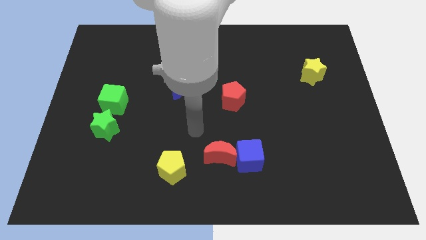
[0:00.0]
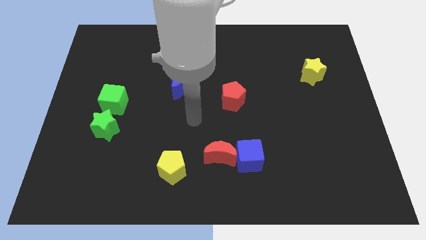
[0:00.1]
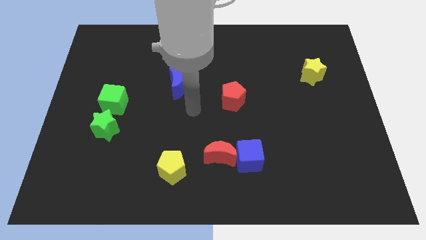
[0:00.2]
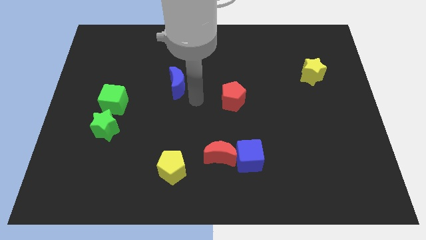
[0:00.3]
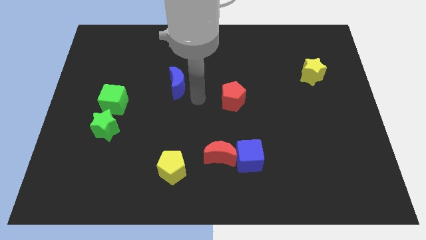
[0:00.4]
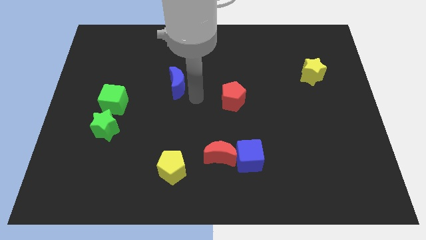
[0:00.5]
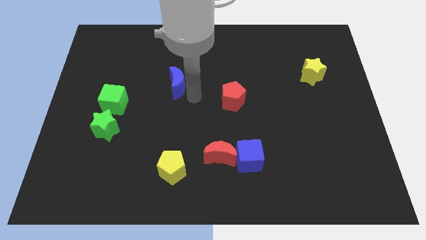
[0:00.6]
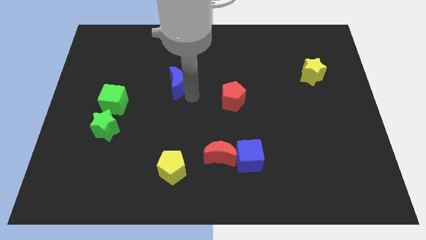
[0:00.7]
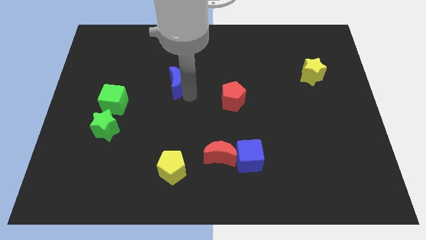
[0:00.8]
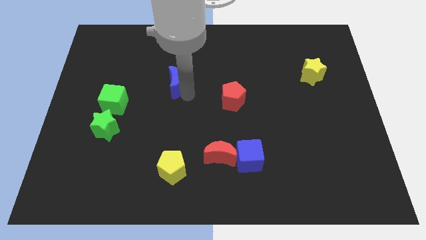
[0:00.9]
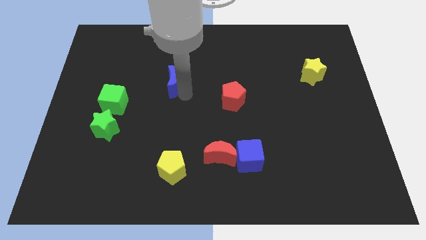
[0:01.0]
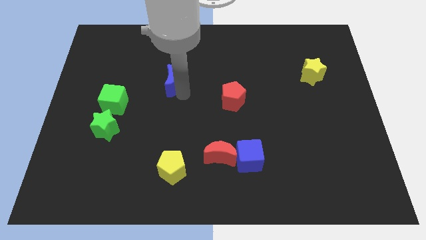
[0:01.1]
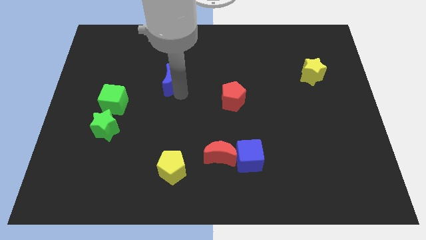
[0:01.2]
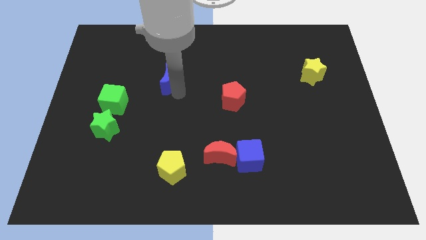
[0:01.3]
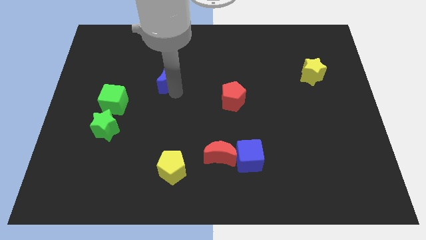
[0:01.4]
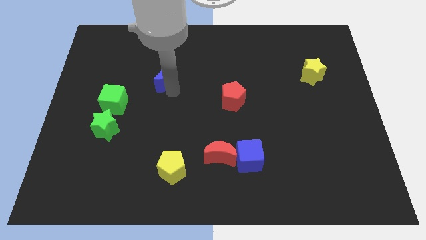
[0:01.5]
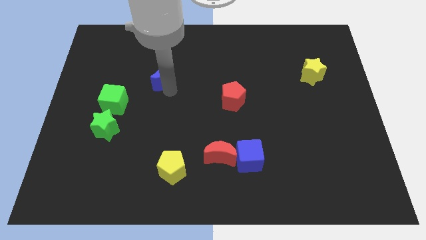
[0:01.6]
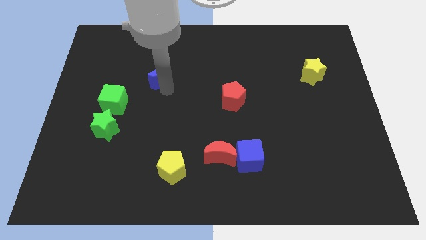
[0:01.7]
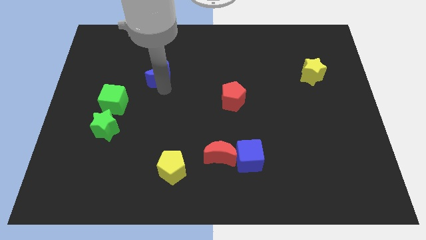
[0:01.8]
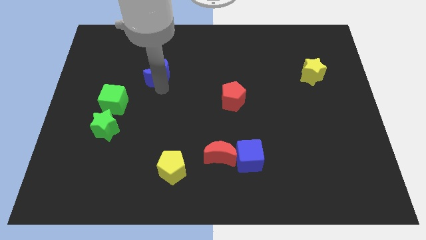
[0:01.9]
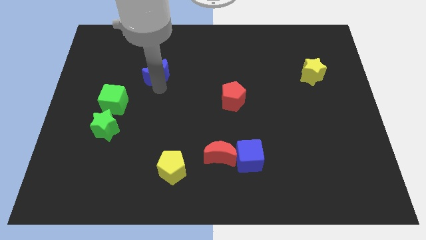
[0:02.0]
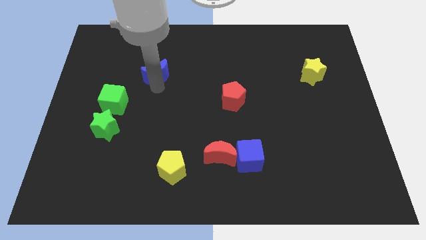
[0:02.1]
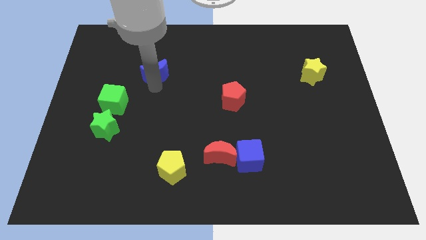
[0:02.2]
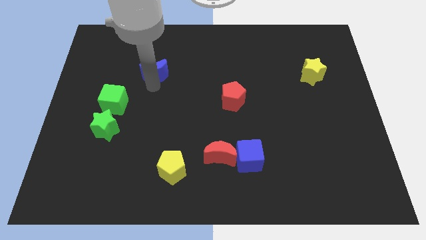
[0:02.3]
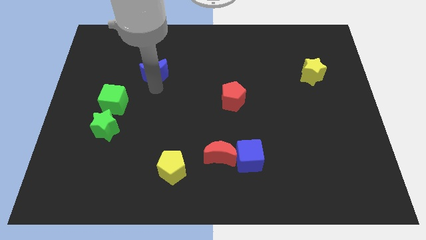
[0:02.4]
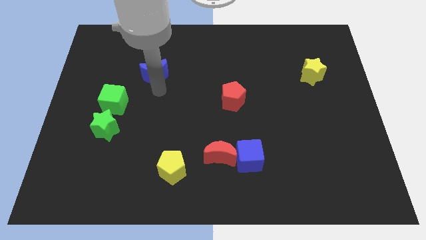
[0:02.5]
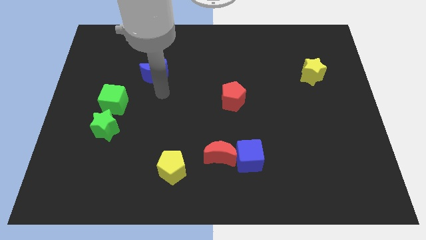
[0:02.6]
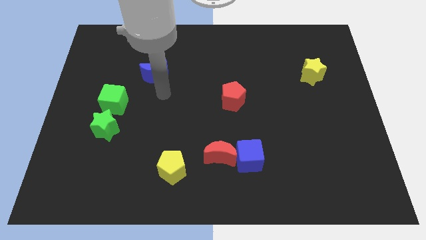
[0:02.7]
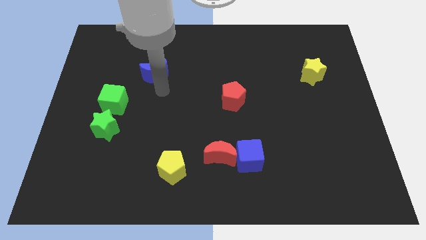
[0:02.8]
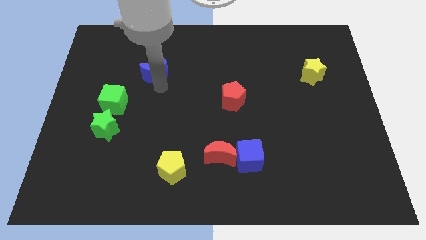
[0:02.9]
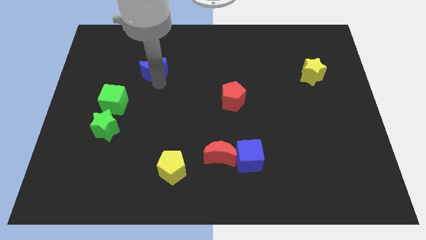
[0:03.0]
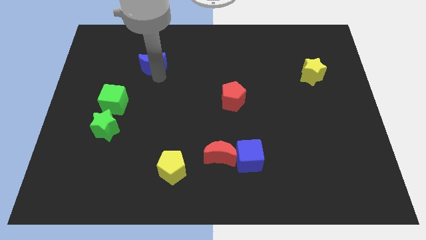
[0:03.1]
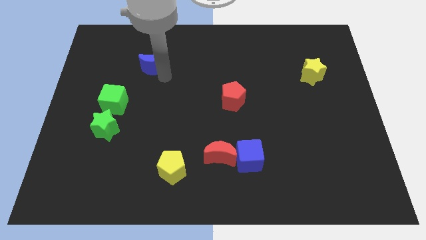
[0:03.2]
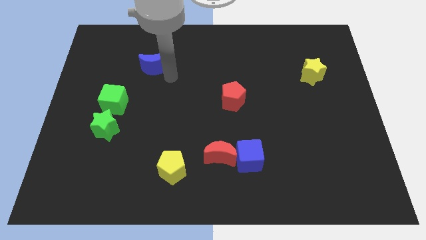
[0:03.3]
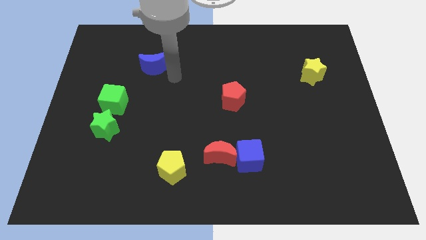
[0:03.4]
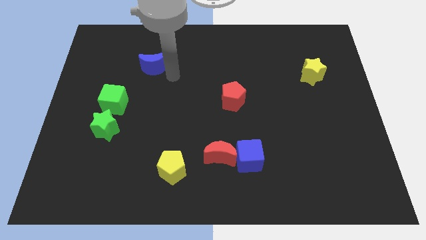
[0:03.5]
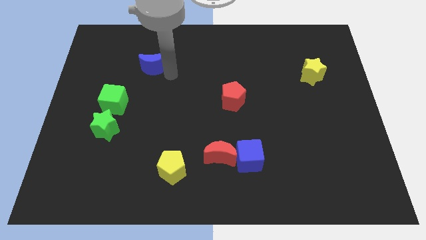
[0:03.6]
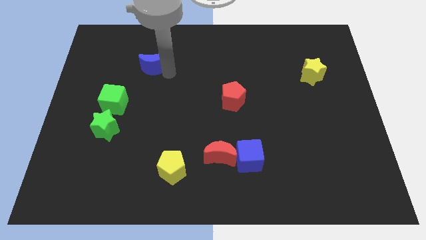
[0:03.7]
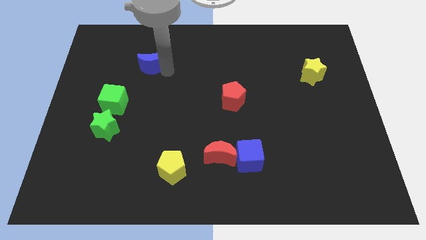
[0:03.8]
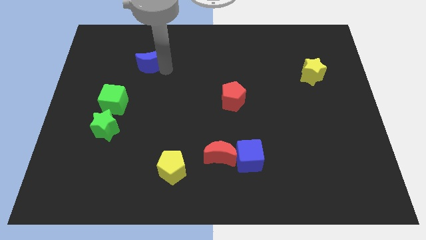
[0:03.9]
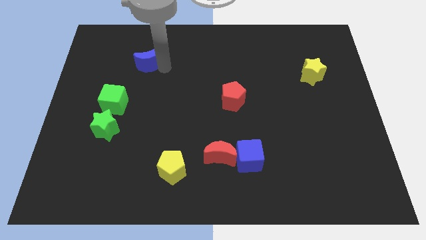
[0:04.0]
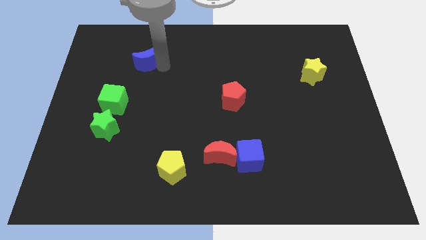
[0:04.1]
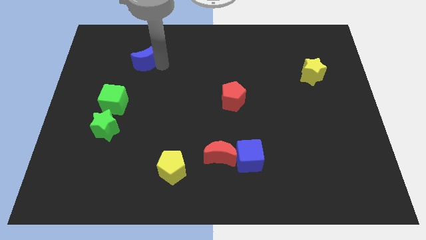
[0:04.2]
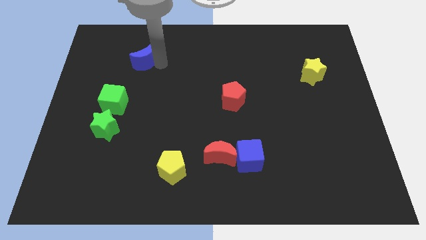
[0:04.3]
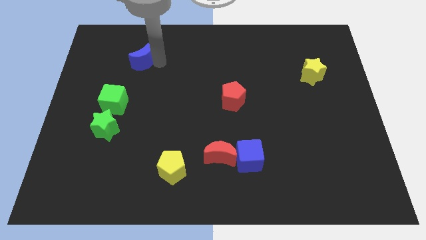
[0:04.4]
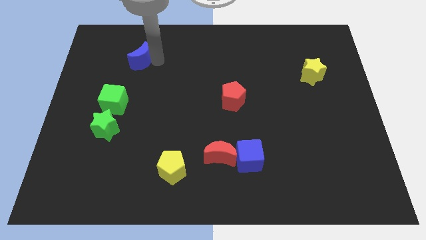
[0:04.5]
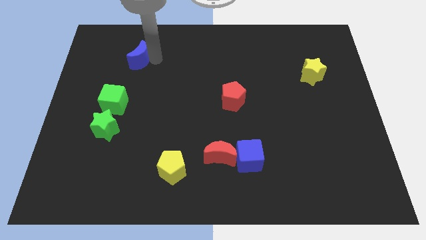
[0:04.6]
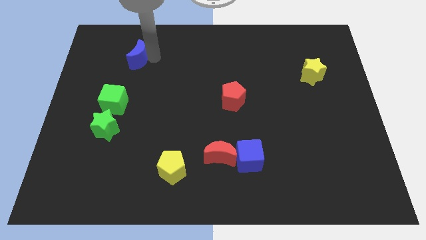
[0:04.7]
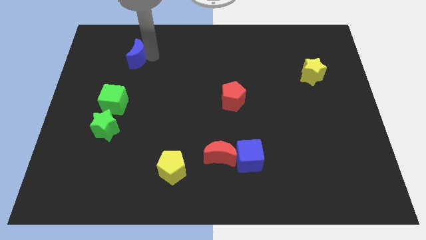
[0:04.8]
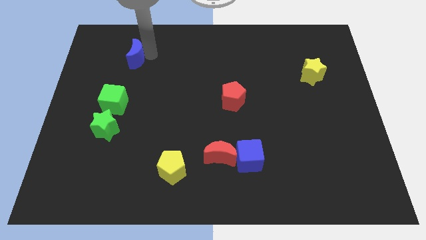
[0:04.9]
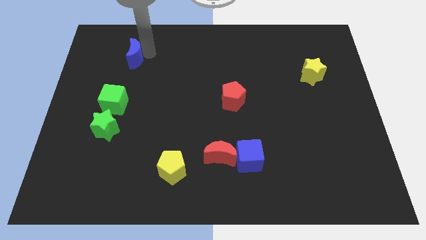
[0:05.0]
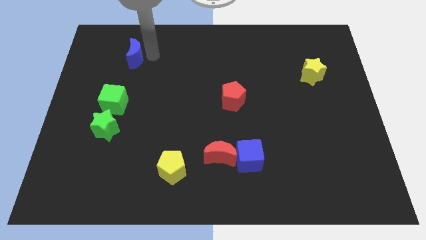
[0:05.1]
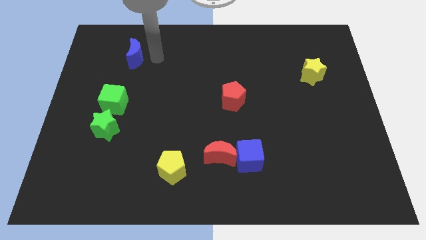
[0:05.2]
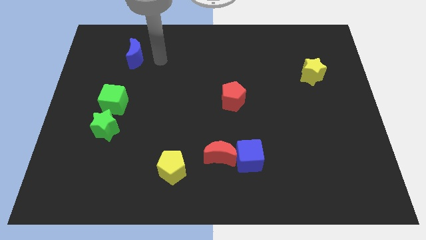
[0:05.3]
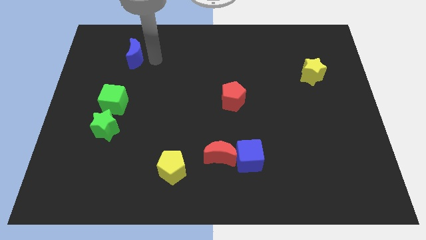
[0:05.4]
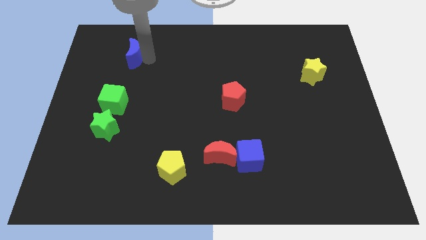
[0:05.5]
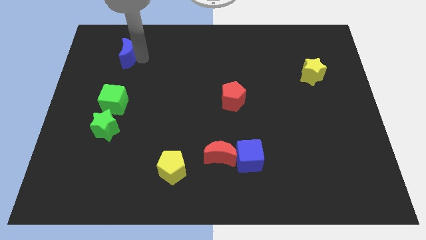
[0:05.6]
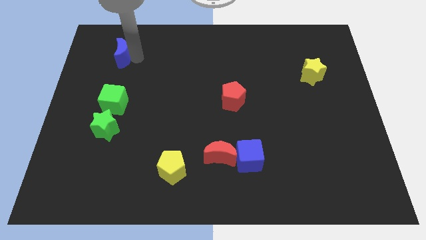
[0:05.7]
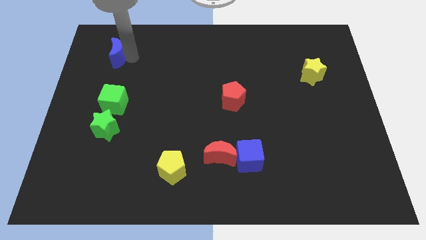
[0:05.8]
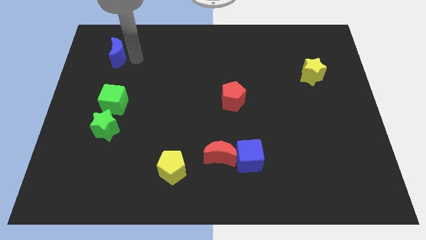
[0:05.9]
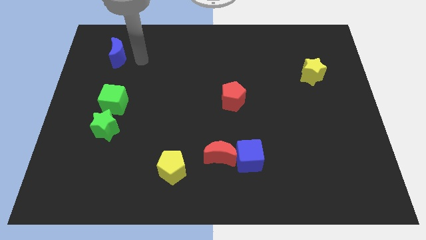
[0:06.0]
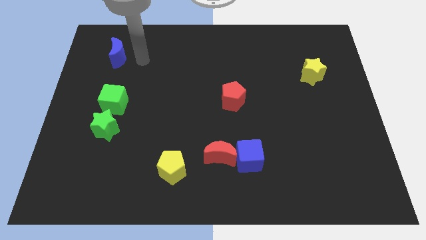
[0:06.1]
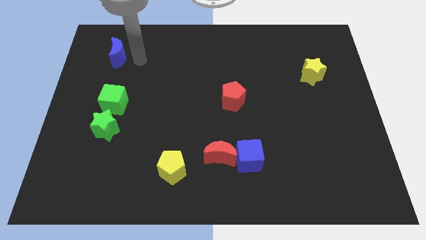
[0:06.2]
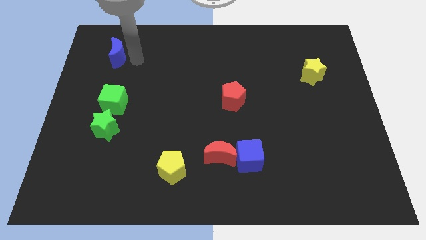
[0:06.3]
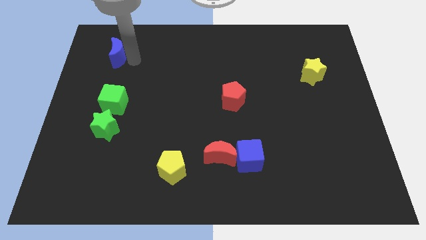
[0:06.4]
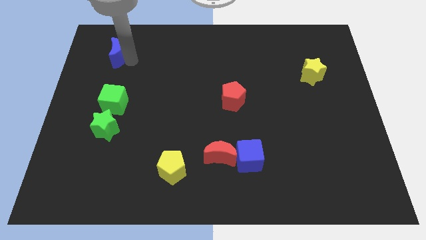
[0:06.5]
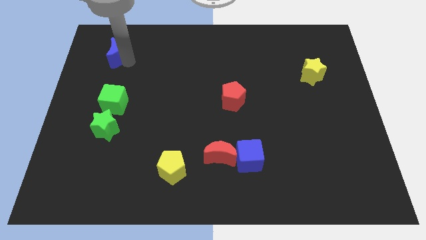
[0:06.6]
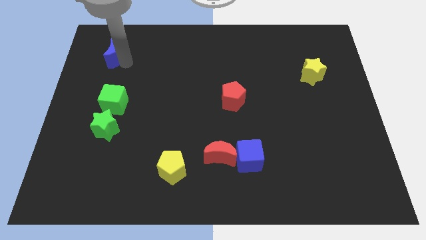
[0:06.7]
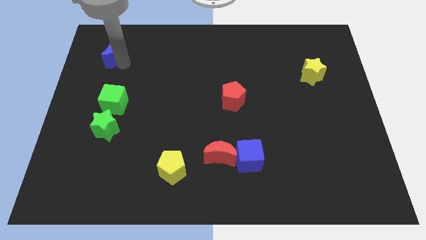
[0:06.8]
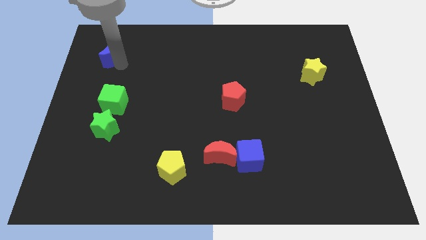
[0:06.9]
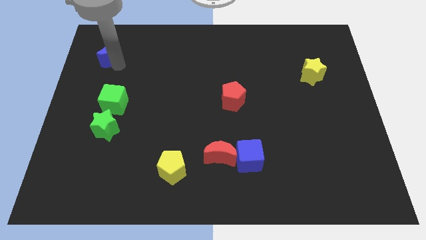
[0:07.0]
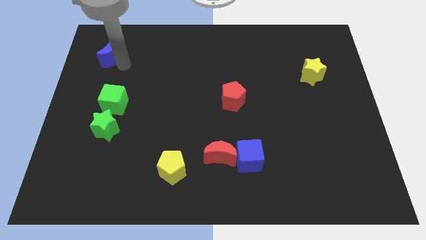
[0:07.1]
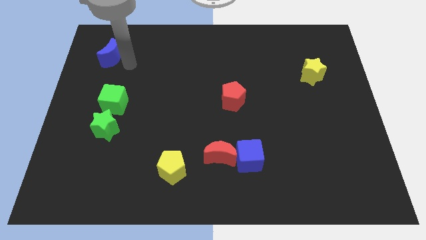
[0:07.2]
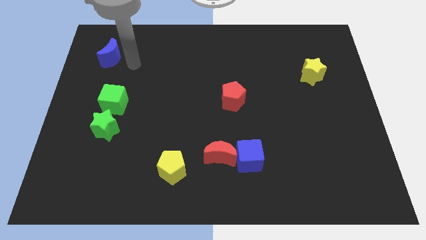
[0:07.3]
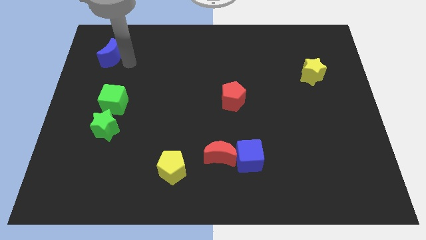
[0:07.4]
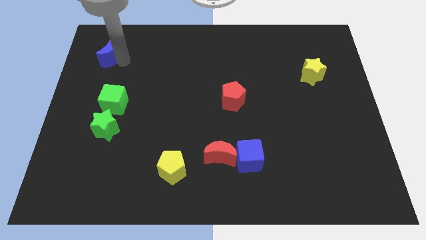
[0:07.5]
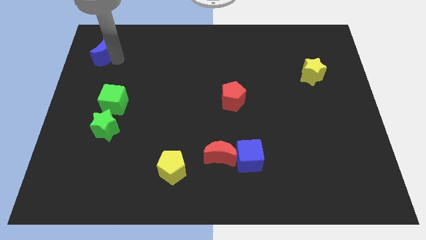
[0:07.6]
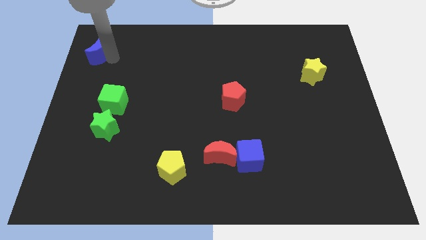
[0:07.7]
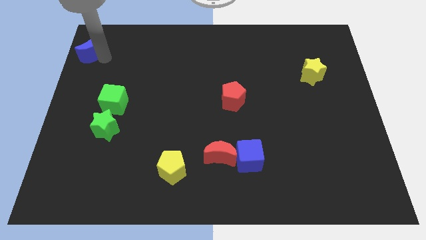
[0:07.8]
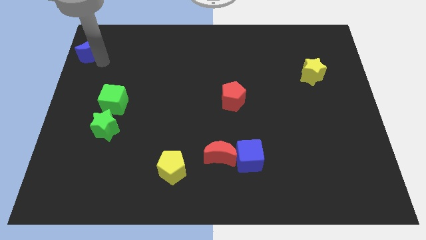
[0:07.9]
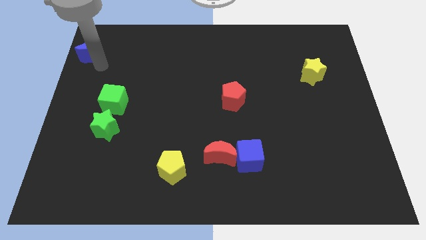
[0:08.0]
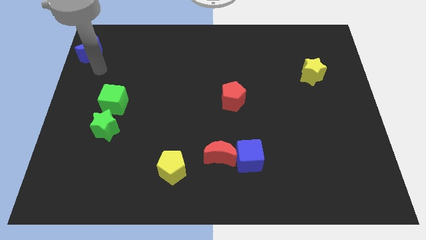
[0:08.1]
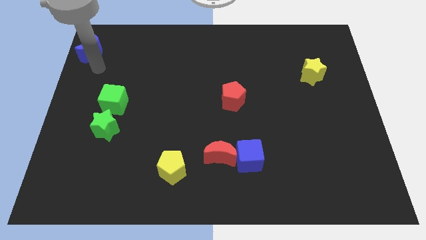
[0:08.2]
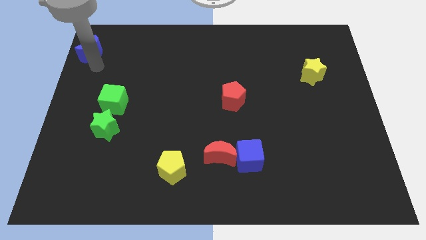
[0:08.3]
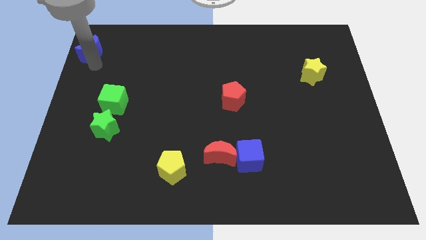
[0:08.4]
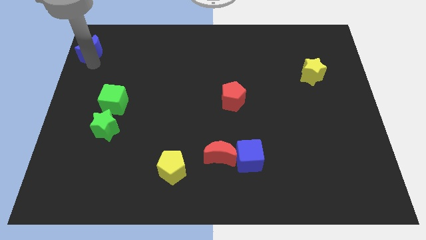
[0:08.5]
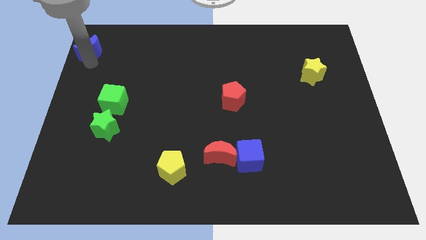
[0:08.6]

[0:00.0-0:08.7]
put the blue moon to the top left
